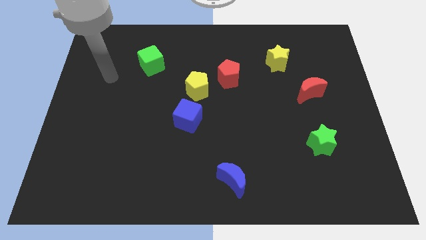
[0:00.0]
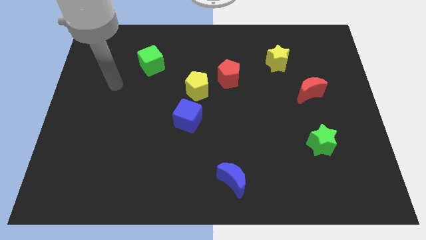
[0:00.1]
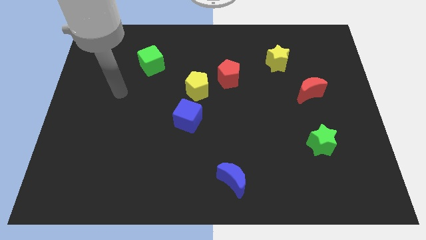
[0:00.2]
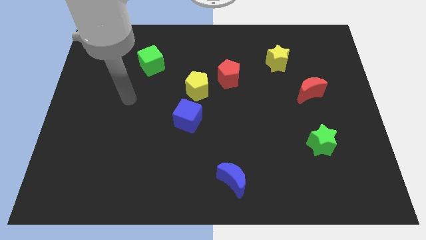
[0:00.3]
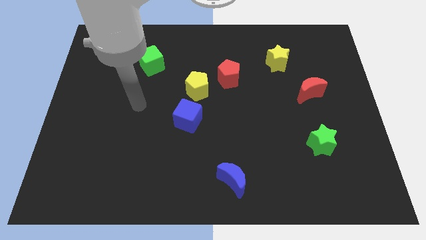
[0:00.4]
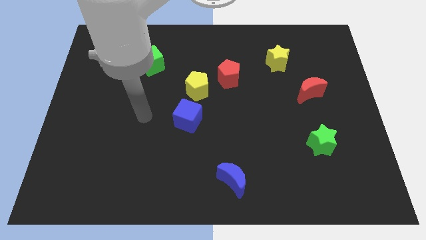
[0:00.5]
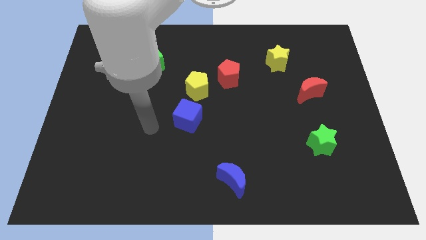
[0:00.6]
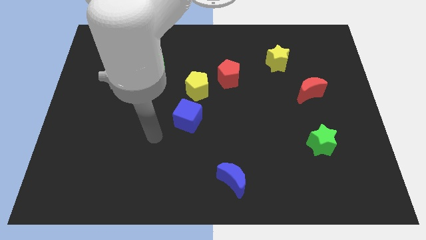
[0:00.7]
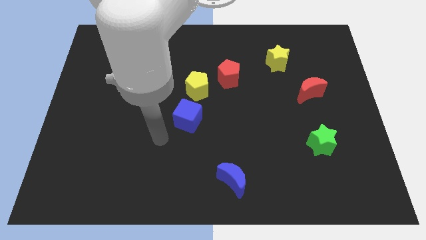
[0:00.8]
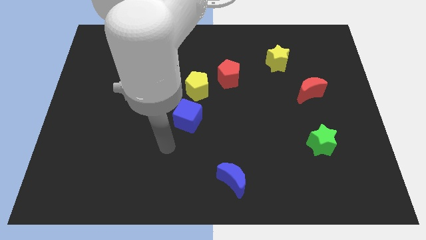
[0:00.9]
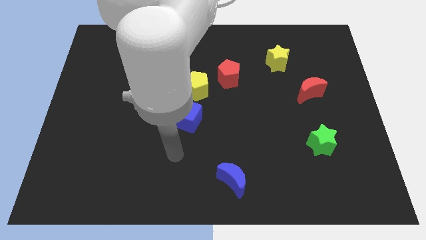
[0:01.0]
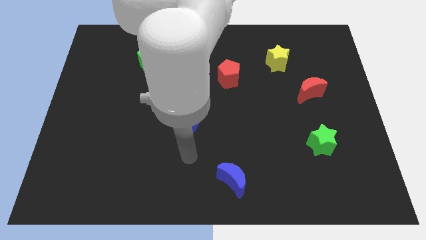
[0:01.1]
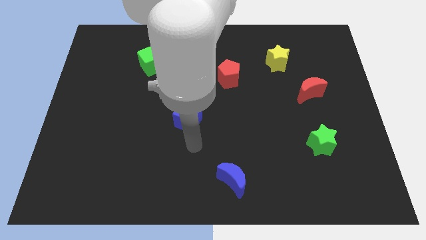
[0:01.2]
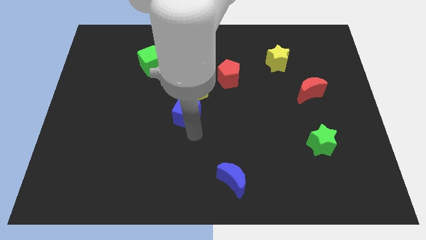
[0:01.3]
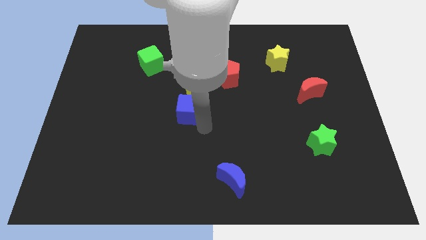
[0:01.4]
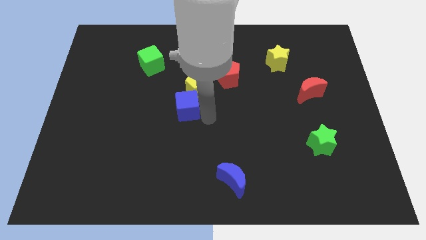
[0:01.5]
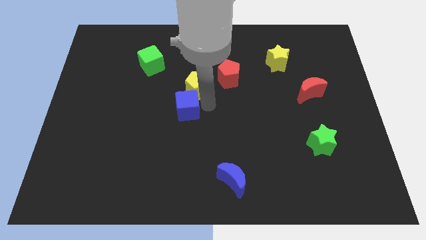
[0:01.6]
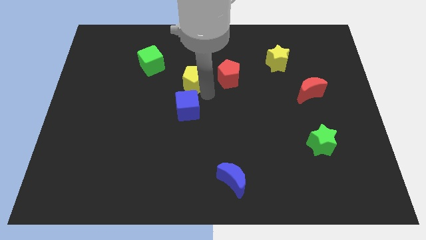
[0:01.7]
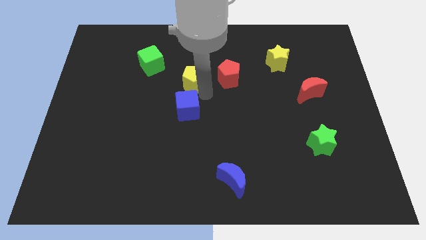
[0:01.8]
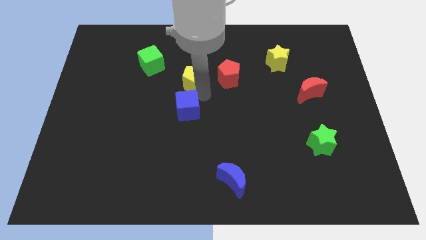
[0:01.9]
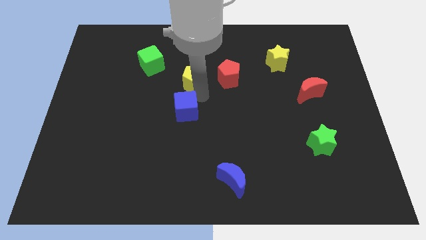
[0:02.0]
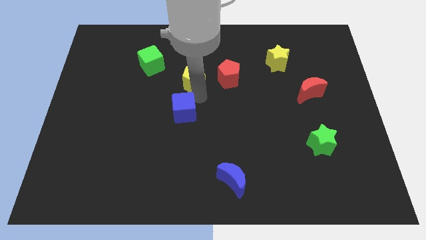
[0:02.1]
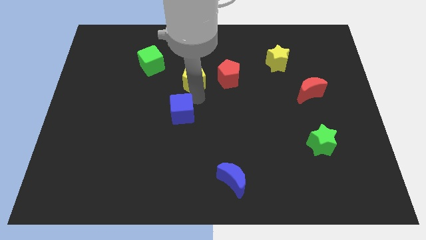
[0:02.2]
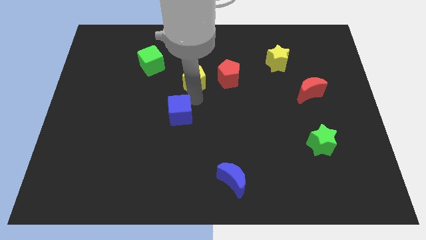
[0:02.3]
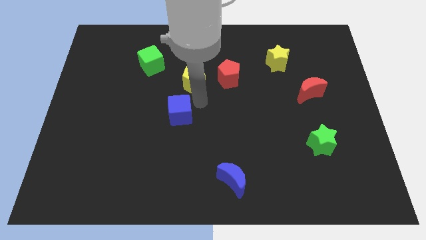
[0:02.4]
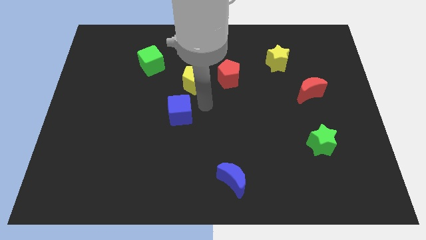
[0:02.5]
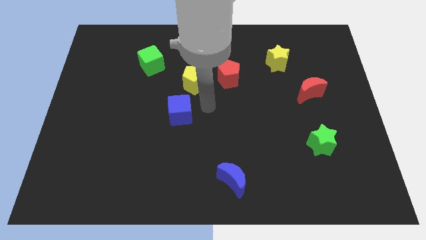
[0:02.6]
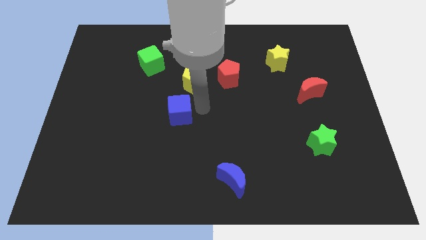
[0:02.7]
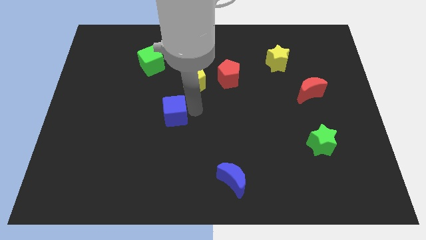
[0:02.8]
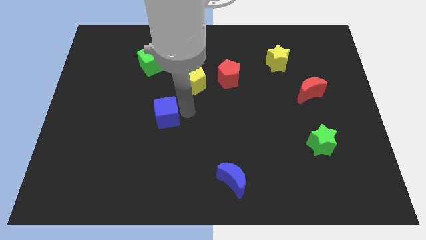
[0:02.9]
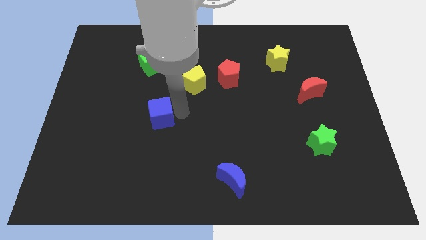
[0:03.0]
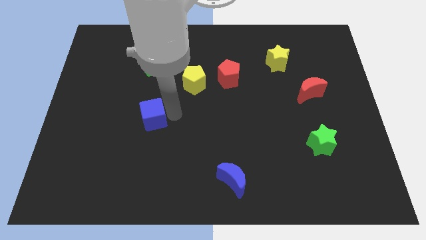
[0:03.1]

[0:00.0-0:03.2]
slide the blue cube to the left a bit

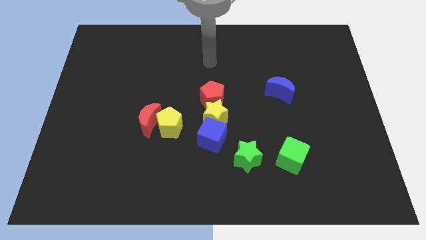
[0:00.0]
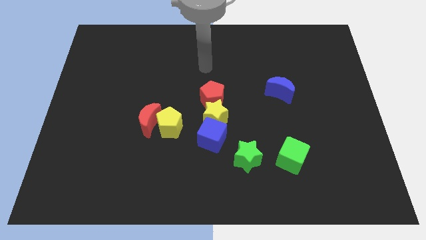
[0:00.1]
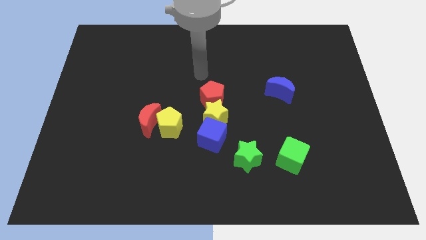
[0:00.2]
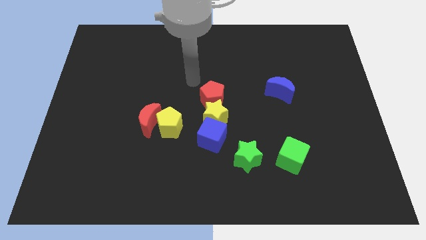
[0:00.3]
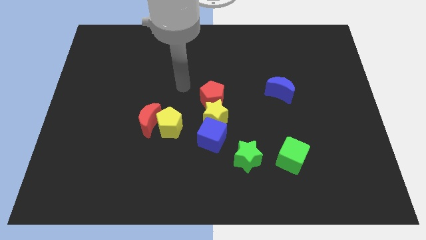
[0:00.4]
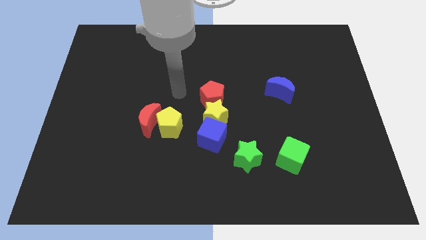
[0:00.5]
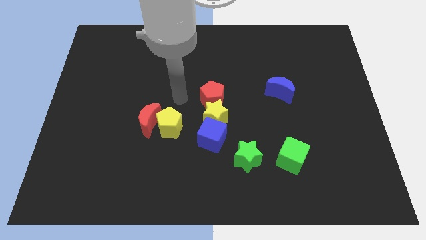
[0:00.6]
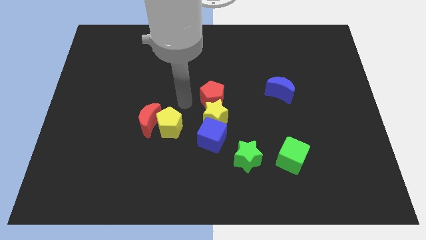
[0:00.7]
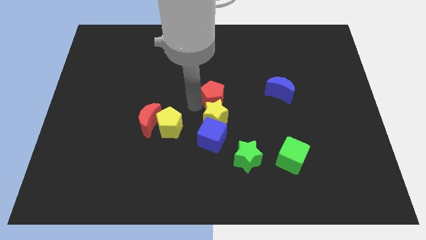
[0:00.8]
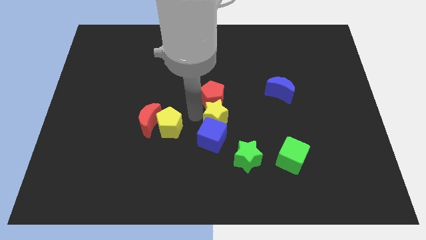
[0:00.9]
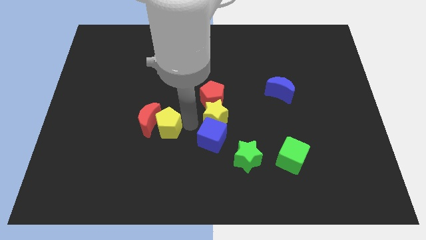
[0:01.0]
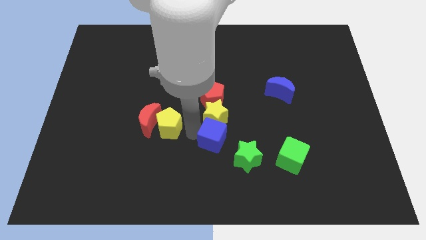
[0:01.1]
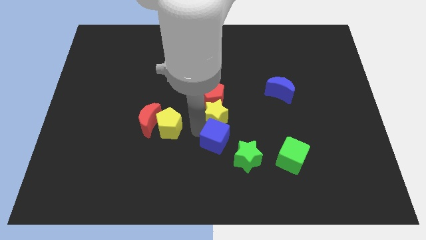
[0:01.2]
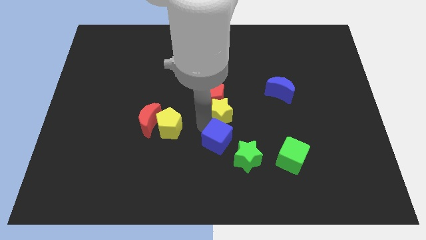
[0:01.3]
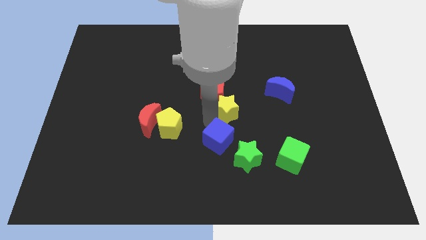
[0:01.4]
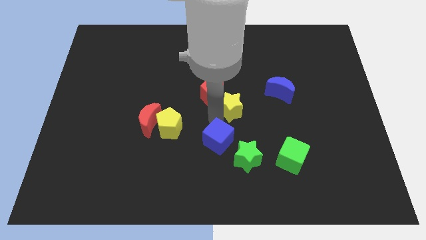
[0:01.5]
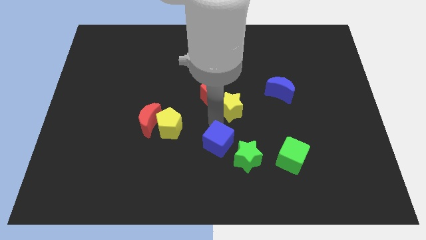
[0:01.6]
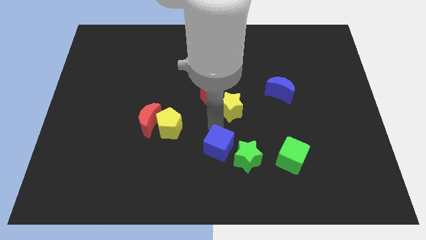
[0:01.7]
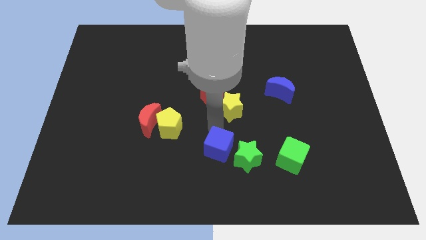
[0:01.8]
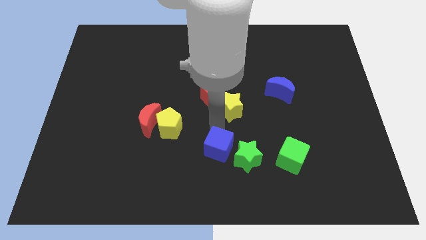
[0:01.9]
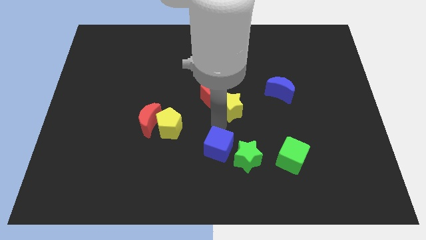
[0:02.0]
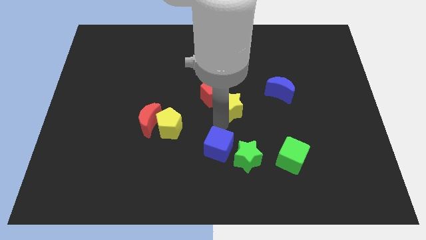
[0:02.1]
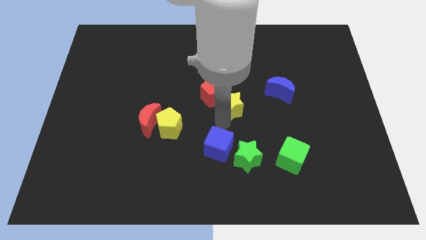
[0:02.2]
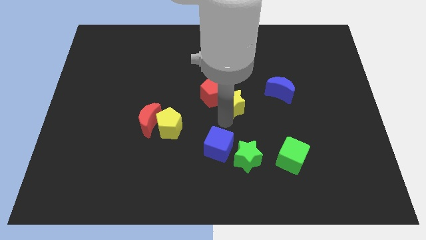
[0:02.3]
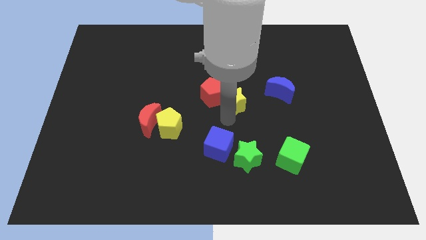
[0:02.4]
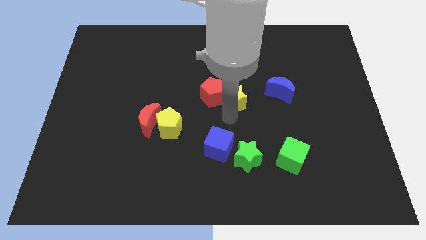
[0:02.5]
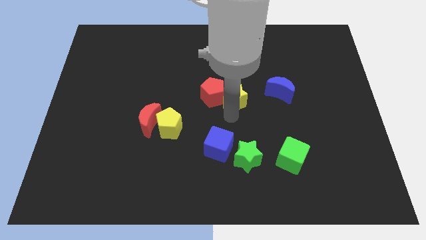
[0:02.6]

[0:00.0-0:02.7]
slide the yellow star upwards and then right a little

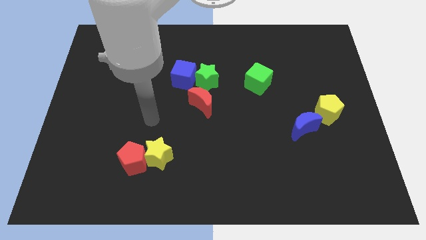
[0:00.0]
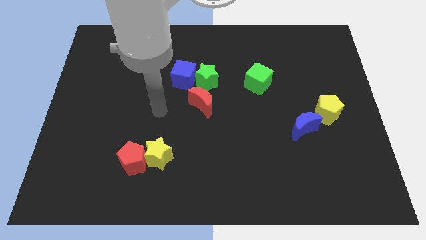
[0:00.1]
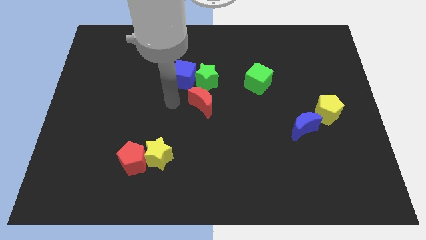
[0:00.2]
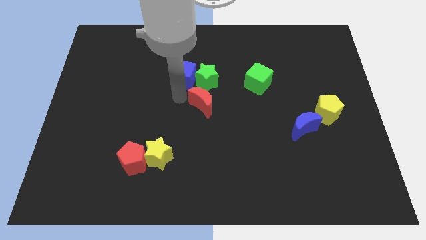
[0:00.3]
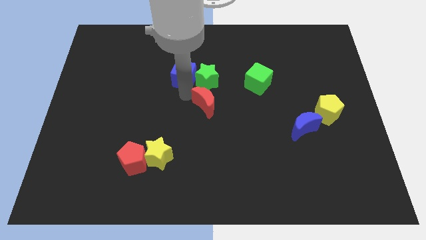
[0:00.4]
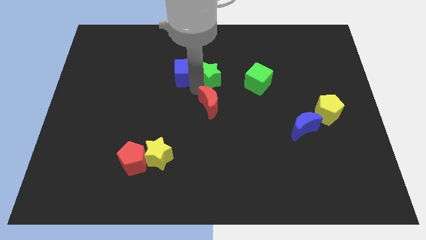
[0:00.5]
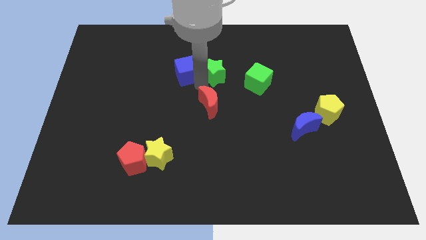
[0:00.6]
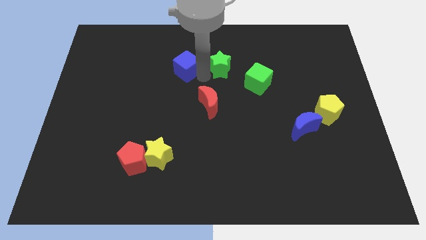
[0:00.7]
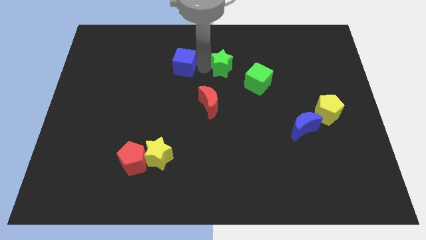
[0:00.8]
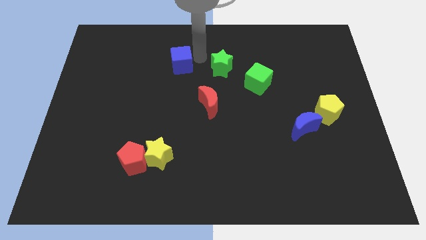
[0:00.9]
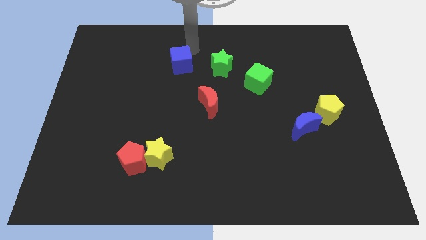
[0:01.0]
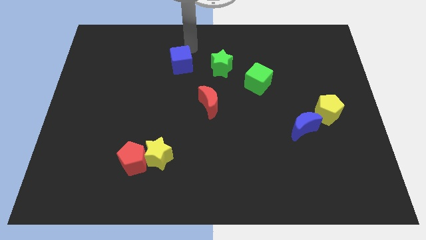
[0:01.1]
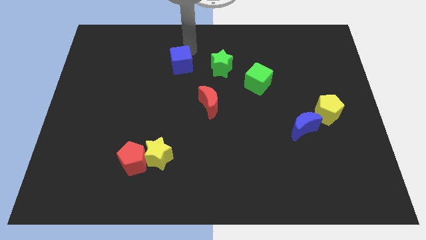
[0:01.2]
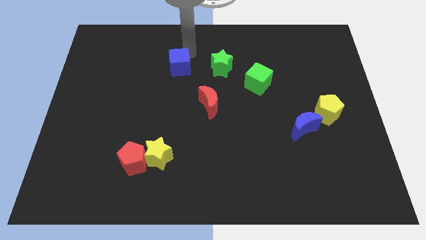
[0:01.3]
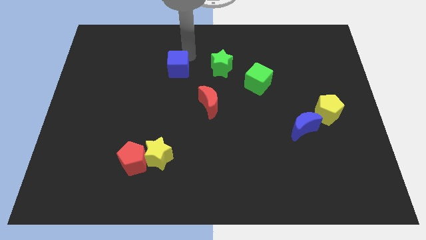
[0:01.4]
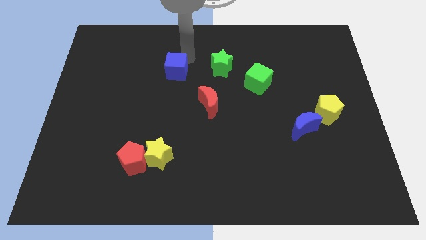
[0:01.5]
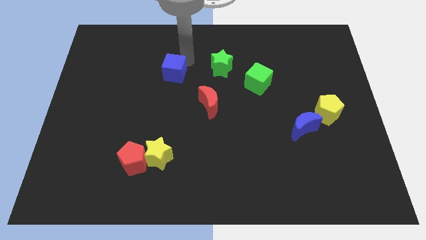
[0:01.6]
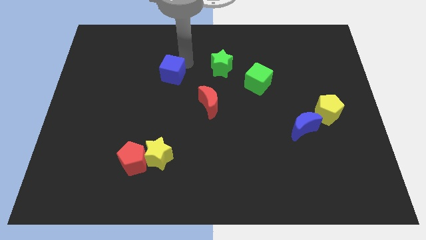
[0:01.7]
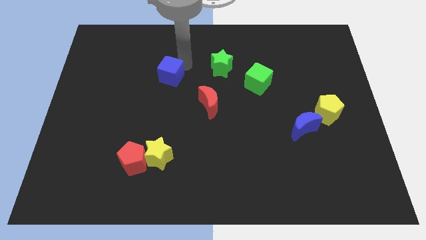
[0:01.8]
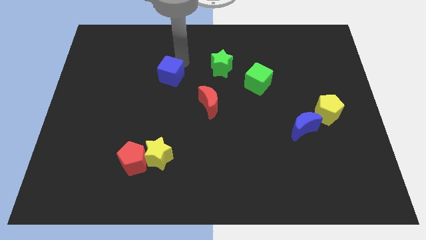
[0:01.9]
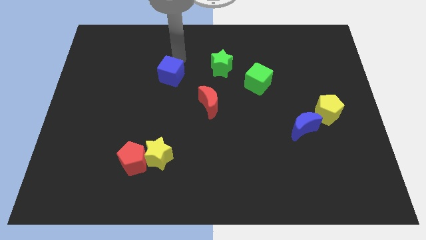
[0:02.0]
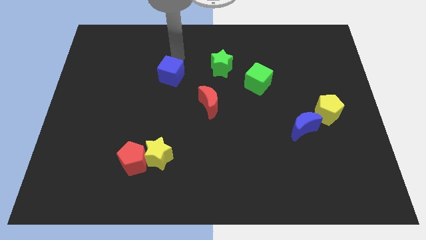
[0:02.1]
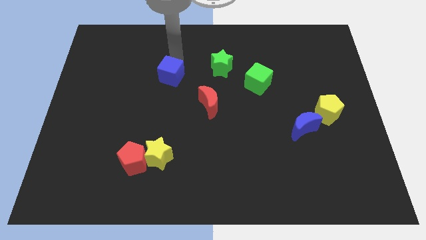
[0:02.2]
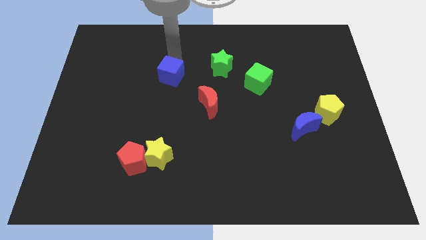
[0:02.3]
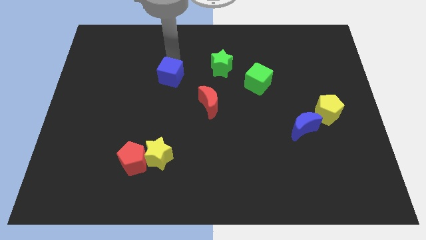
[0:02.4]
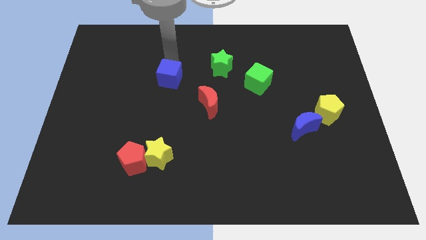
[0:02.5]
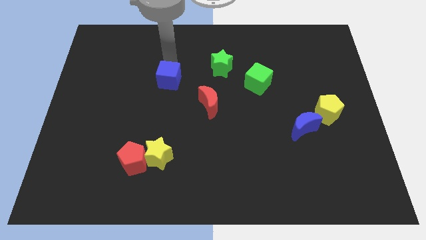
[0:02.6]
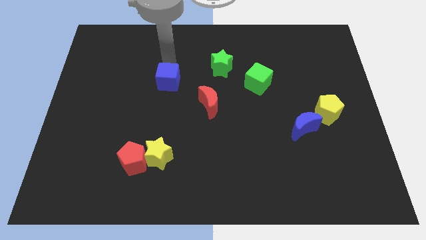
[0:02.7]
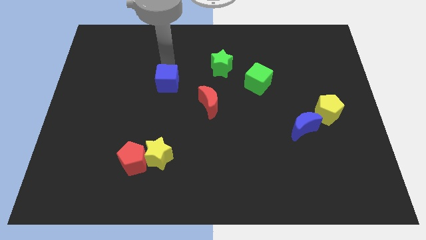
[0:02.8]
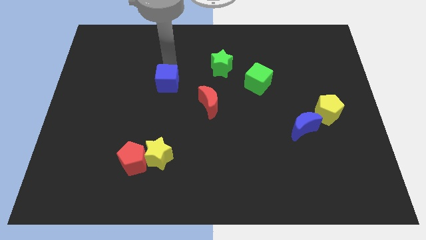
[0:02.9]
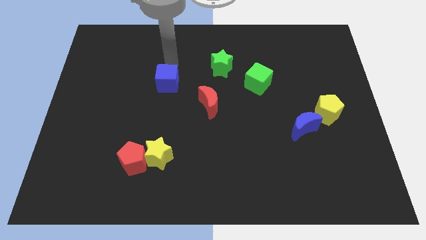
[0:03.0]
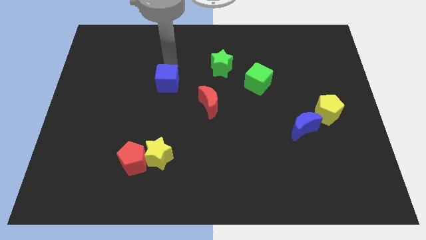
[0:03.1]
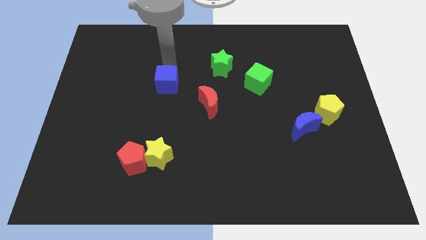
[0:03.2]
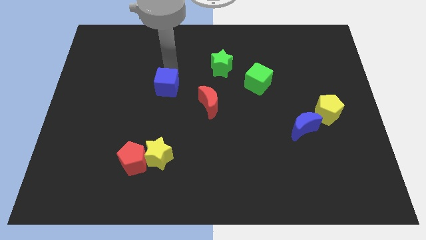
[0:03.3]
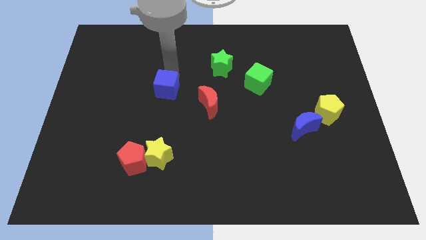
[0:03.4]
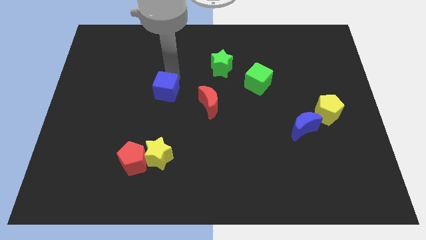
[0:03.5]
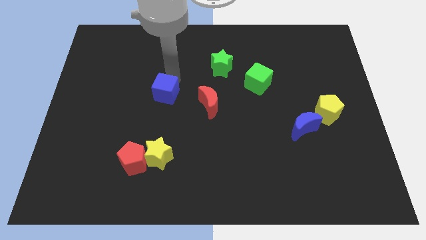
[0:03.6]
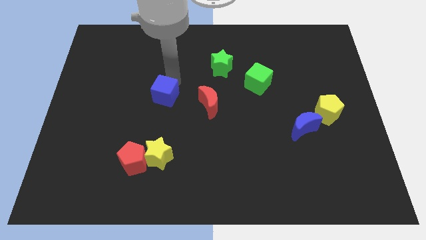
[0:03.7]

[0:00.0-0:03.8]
push the blue cube a little bit down and to the left diagonally
